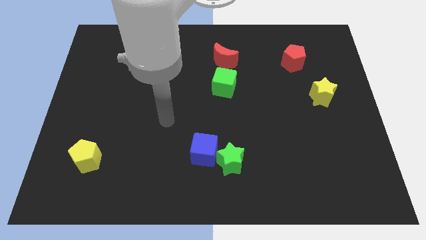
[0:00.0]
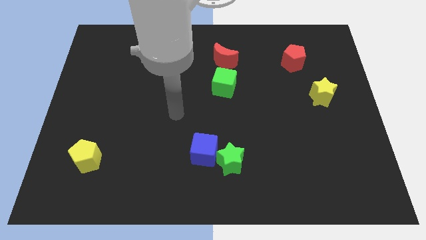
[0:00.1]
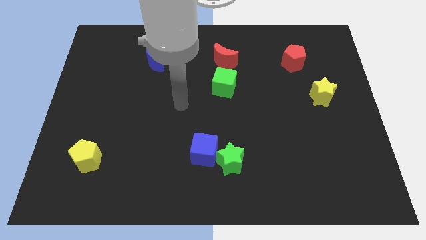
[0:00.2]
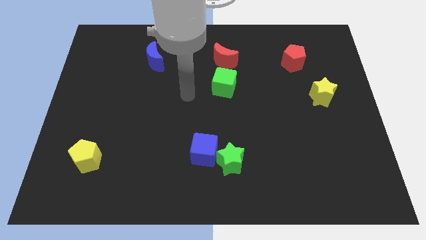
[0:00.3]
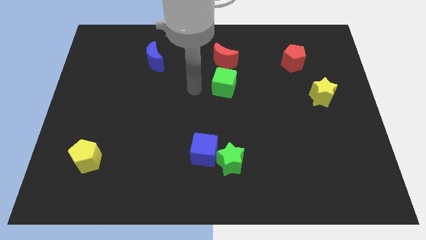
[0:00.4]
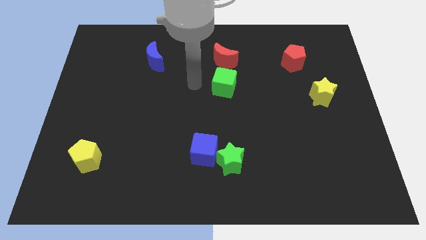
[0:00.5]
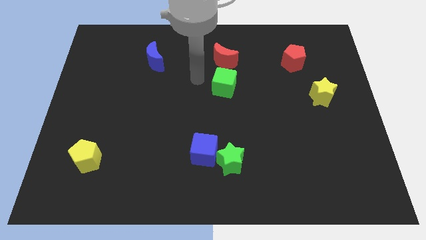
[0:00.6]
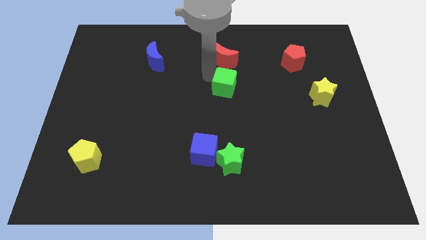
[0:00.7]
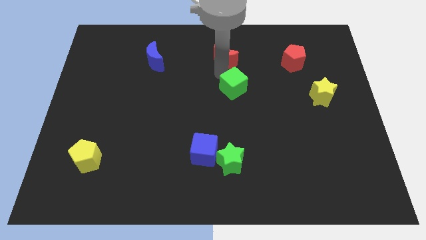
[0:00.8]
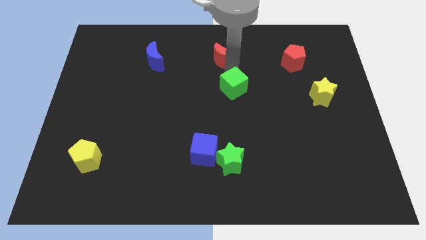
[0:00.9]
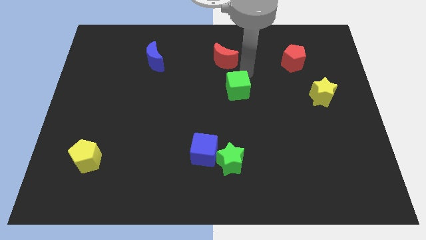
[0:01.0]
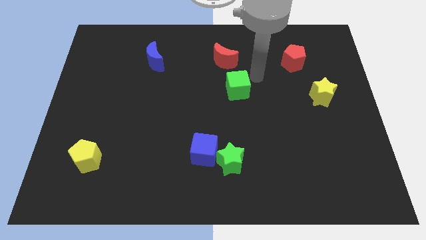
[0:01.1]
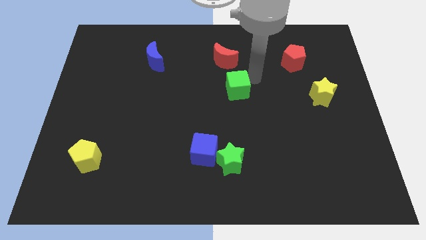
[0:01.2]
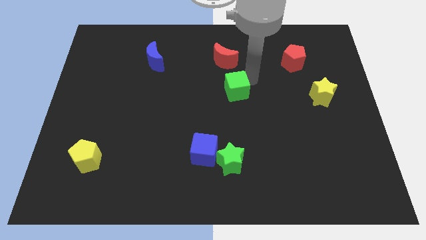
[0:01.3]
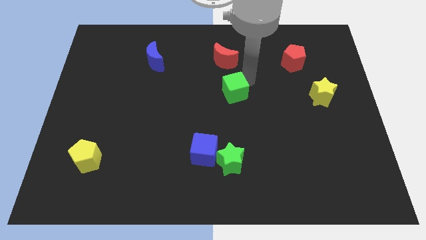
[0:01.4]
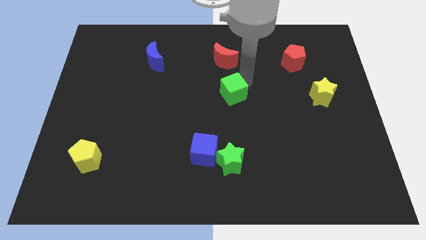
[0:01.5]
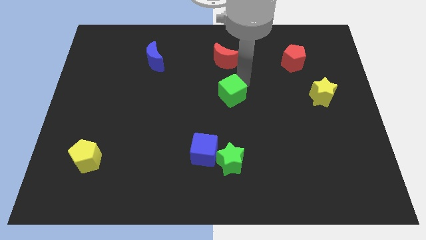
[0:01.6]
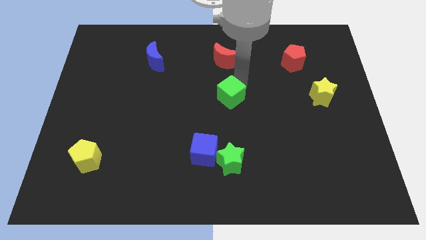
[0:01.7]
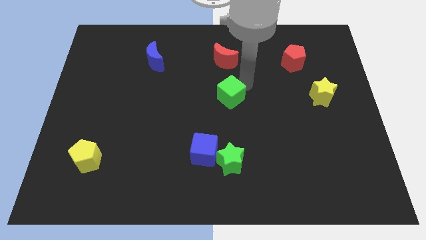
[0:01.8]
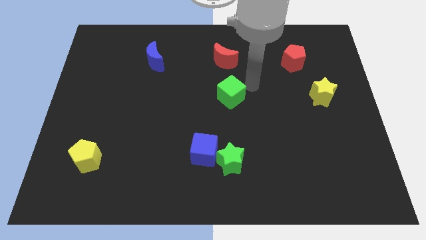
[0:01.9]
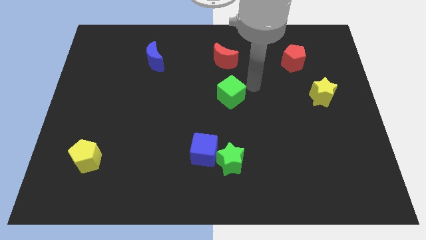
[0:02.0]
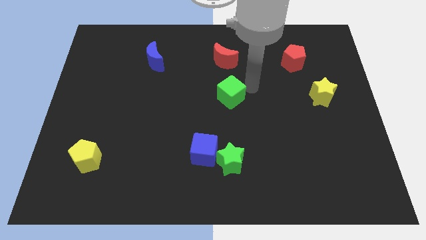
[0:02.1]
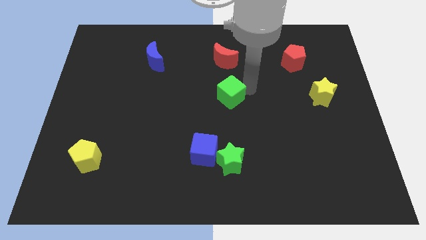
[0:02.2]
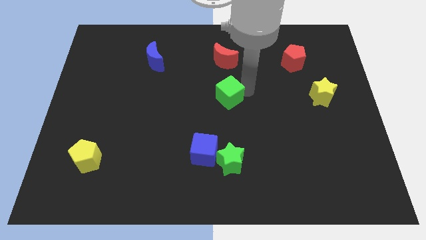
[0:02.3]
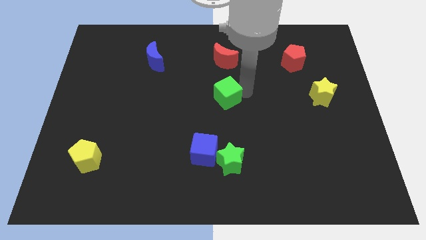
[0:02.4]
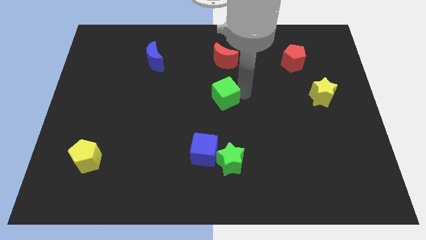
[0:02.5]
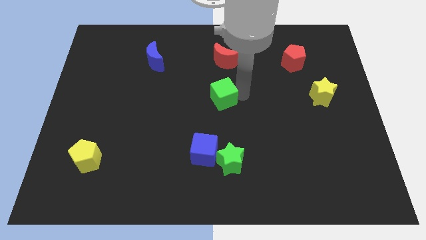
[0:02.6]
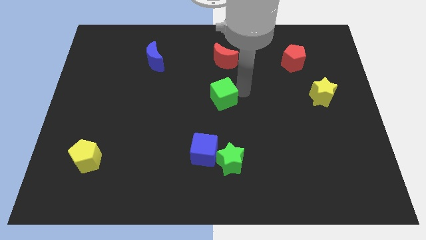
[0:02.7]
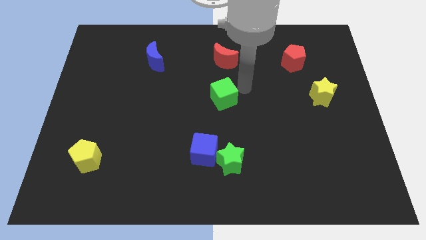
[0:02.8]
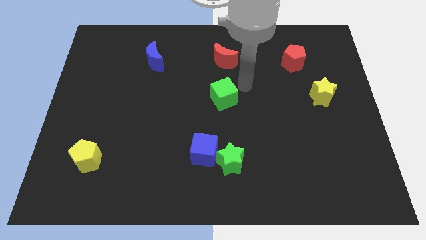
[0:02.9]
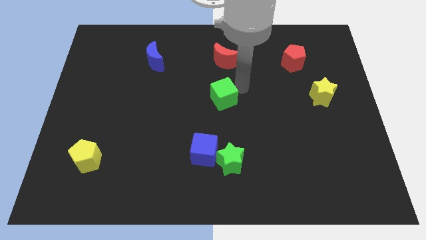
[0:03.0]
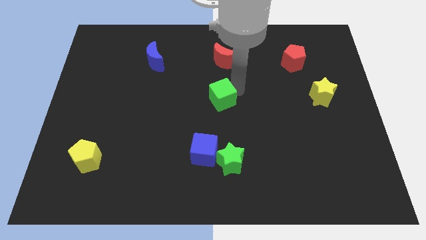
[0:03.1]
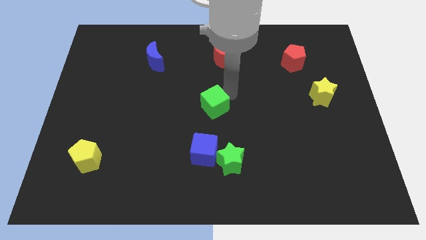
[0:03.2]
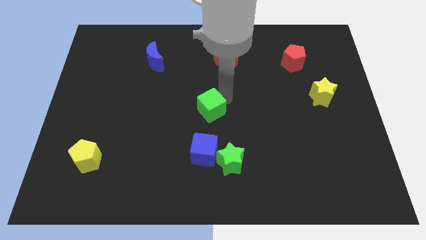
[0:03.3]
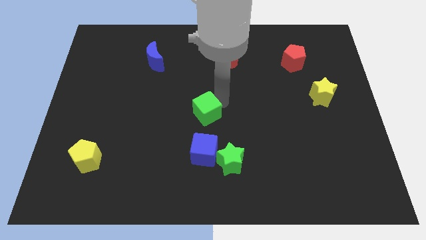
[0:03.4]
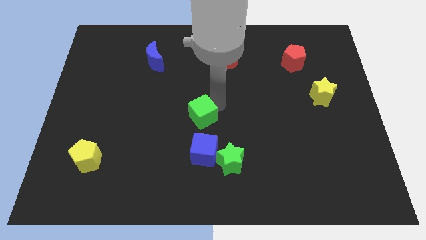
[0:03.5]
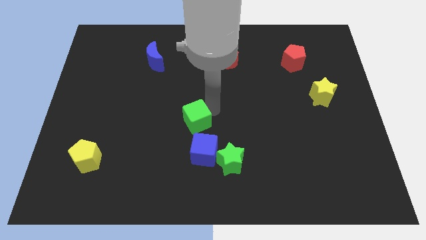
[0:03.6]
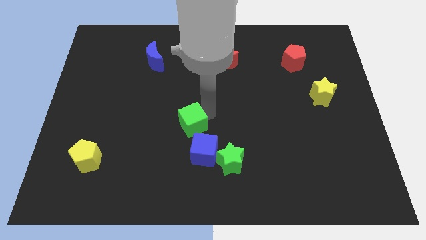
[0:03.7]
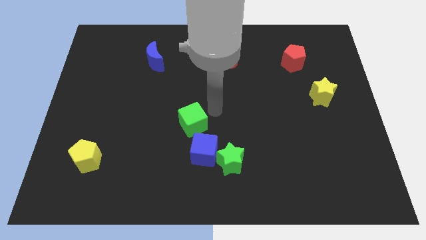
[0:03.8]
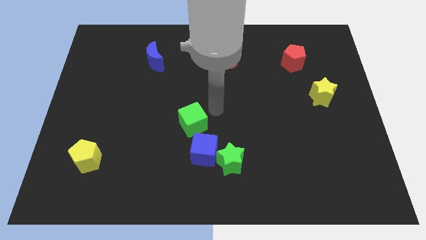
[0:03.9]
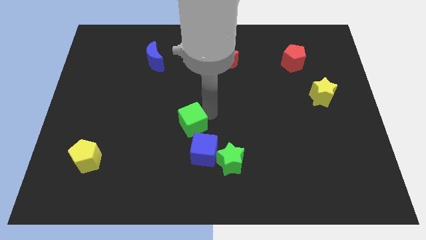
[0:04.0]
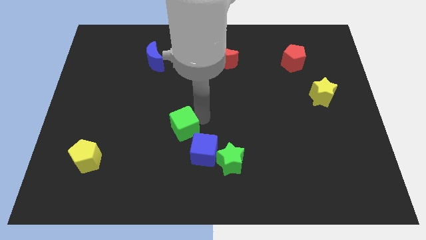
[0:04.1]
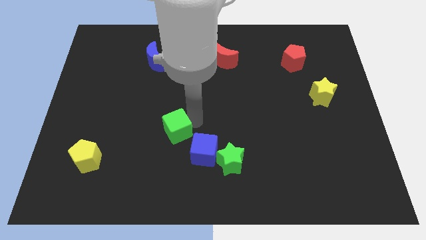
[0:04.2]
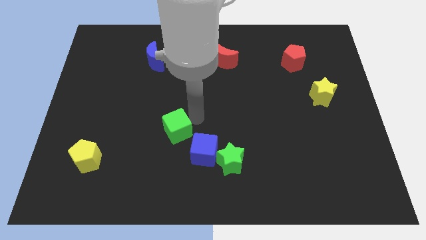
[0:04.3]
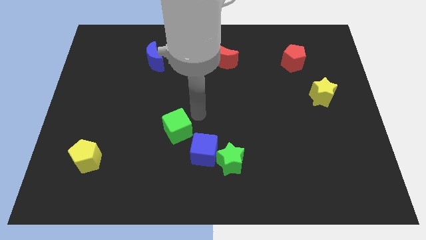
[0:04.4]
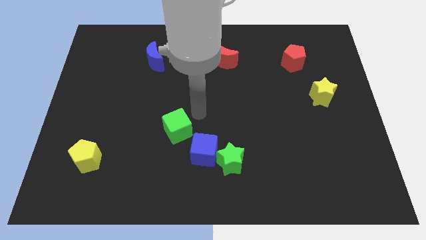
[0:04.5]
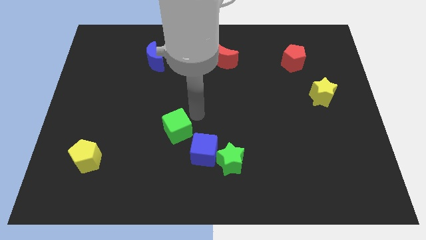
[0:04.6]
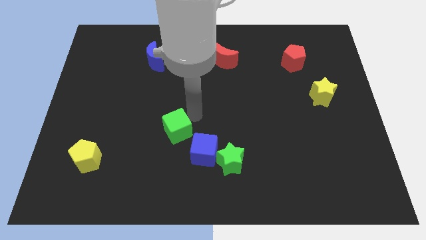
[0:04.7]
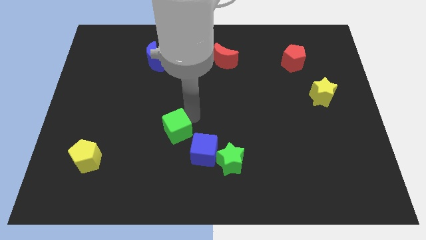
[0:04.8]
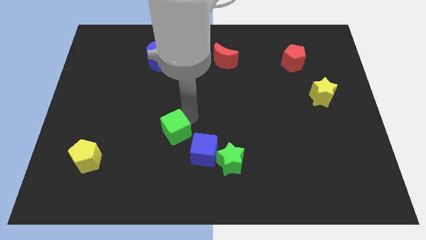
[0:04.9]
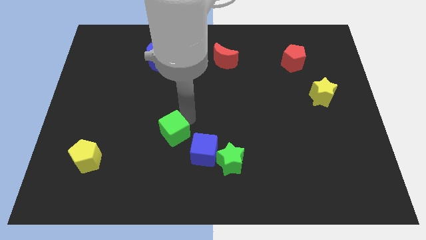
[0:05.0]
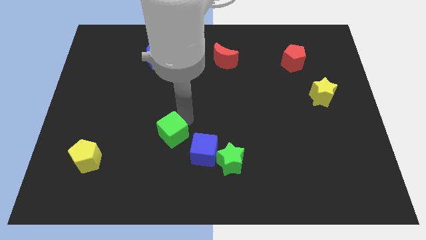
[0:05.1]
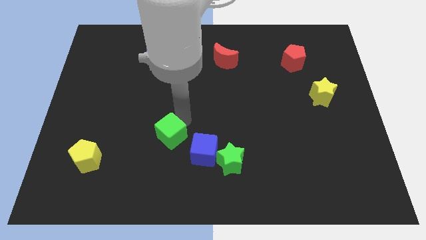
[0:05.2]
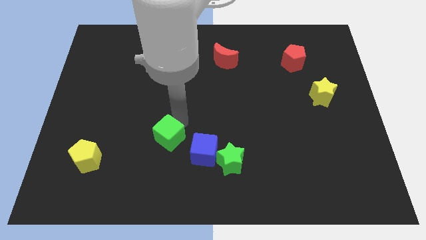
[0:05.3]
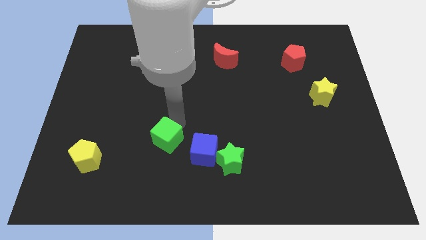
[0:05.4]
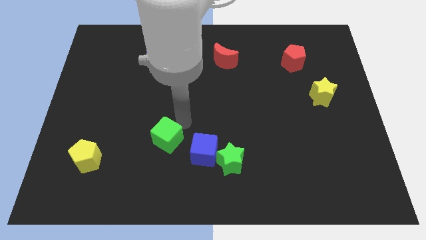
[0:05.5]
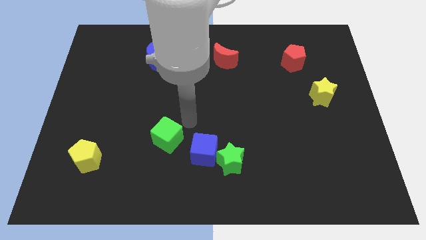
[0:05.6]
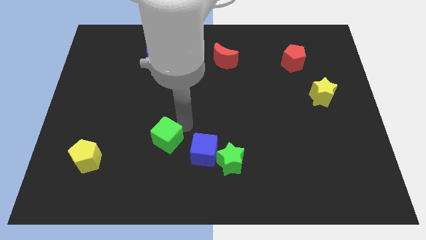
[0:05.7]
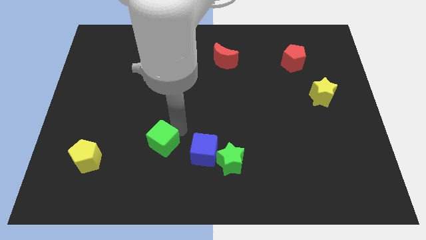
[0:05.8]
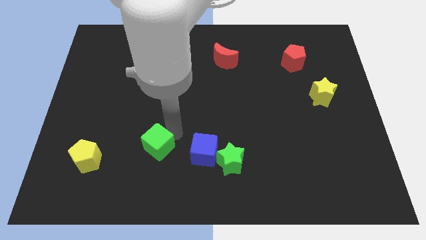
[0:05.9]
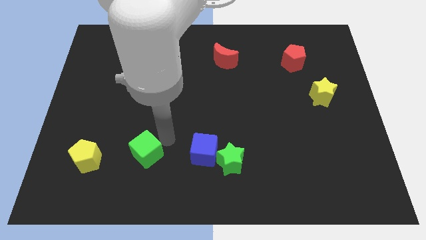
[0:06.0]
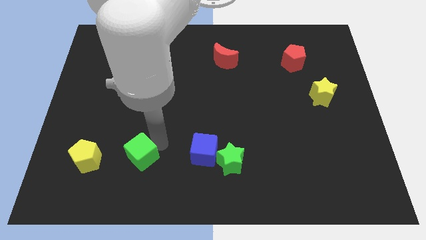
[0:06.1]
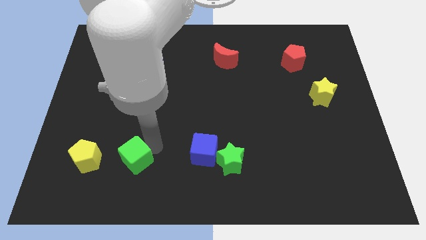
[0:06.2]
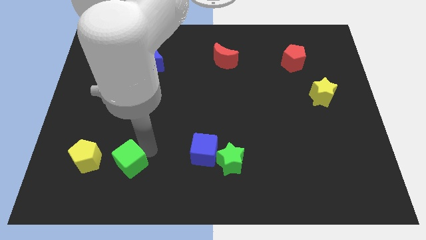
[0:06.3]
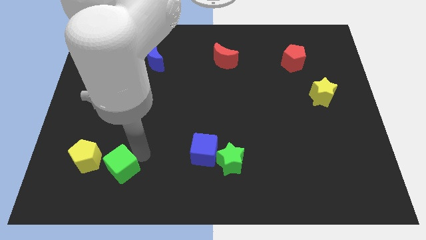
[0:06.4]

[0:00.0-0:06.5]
move the green cube to the bottom right of the yellow pentagon

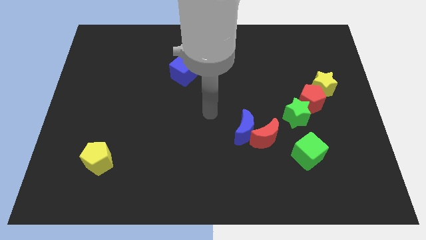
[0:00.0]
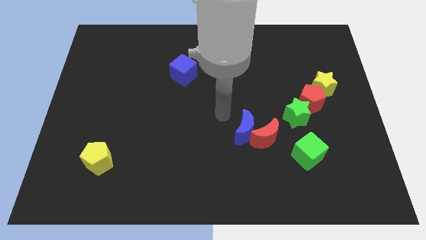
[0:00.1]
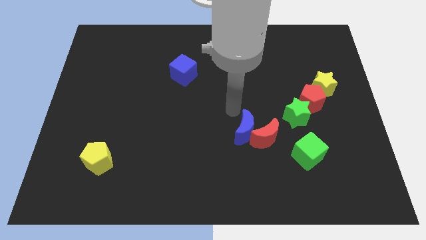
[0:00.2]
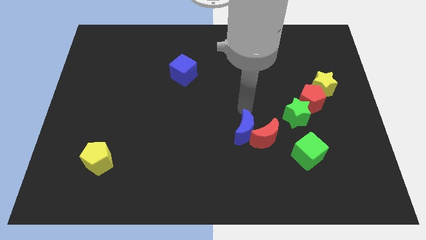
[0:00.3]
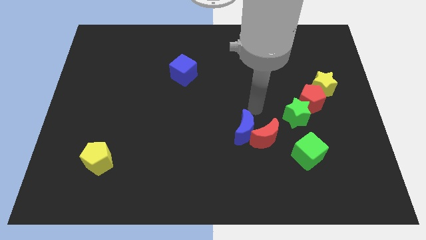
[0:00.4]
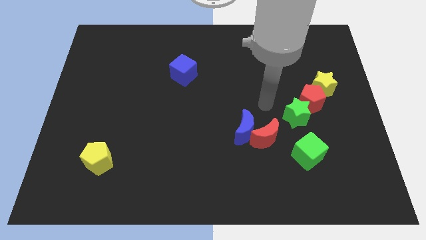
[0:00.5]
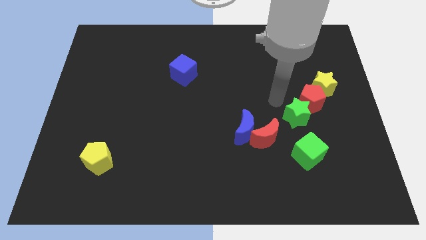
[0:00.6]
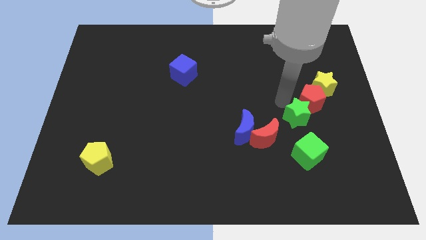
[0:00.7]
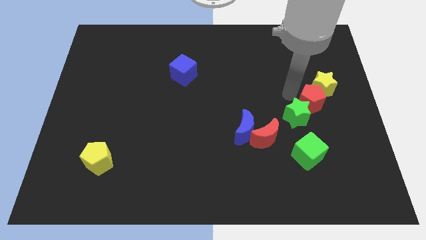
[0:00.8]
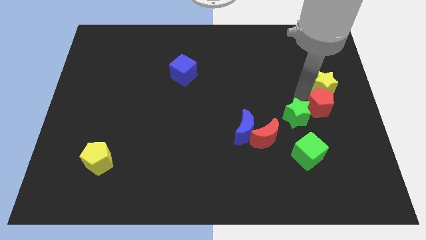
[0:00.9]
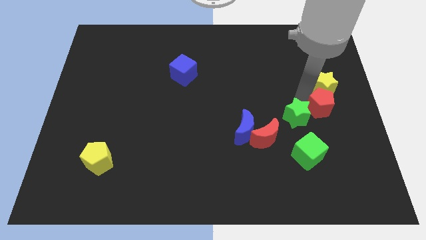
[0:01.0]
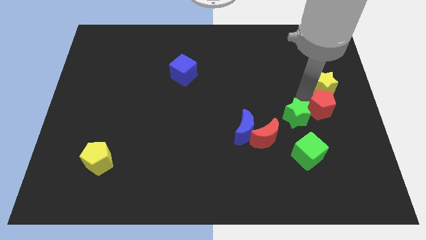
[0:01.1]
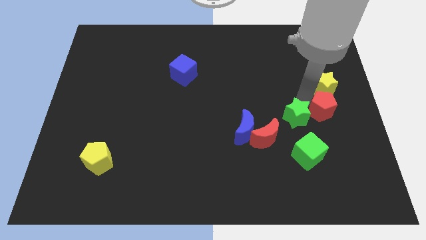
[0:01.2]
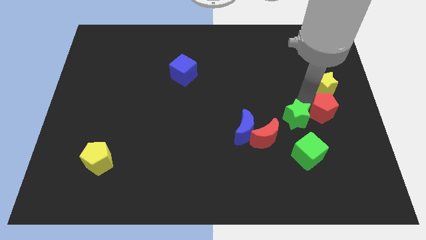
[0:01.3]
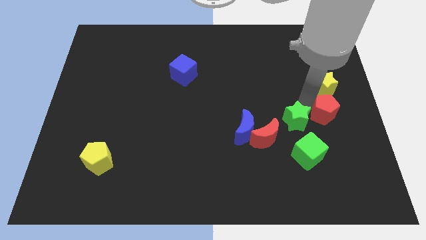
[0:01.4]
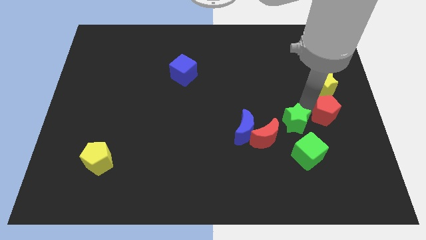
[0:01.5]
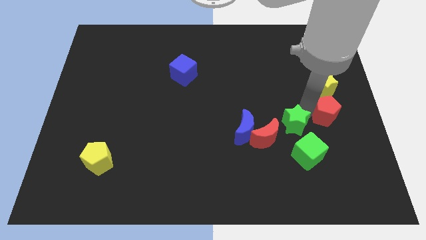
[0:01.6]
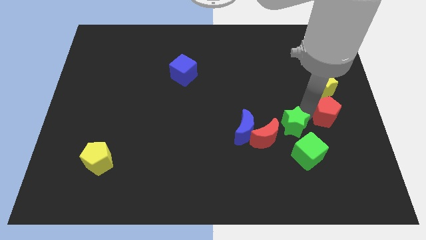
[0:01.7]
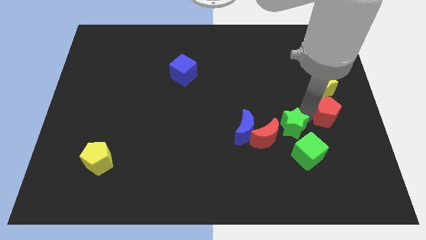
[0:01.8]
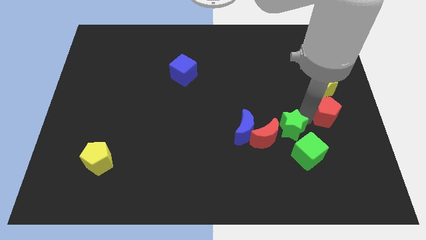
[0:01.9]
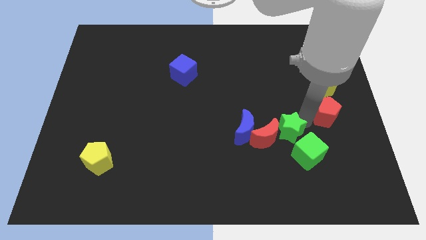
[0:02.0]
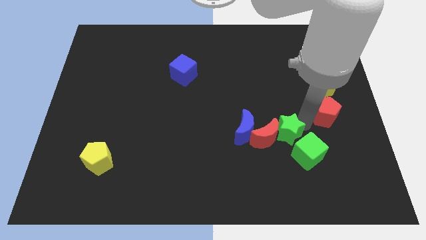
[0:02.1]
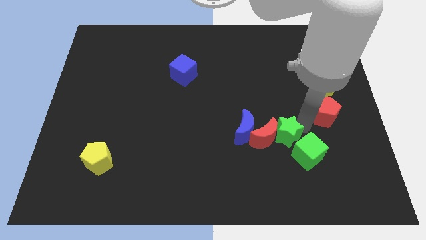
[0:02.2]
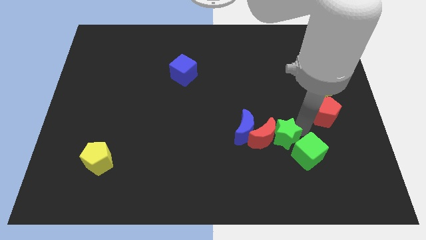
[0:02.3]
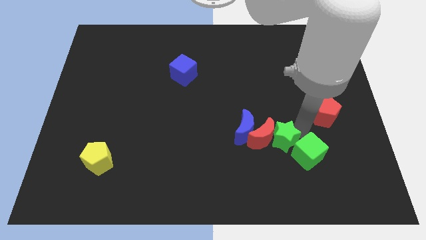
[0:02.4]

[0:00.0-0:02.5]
push the green star to the bottom right side of the blue moon
